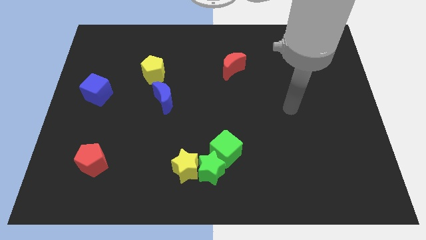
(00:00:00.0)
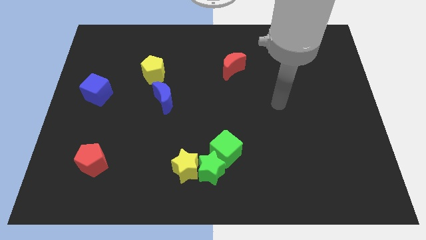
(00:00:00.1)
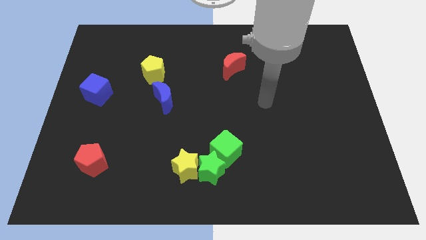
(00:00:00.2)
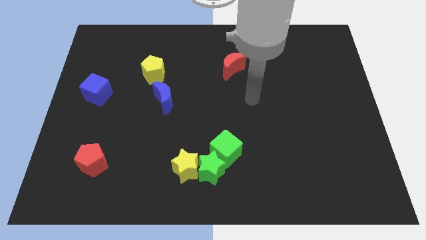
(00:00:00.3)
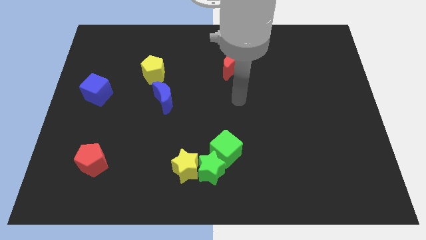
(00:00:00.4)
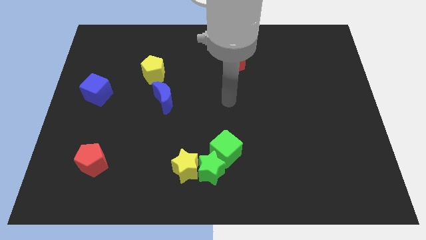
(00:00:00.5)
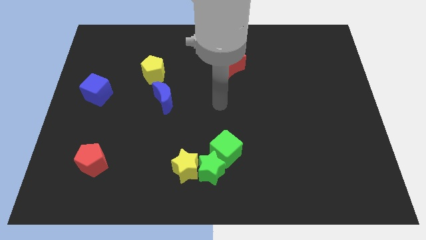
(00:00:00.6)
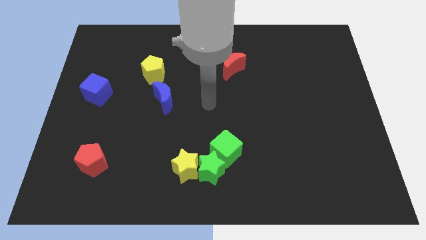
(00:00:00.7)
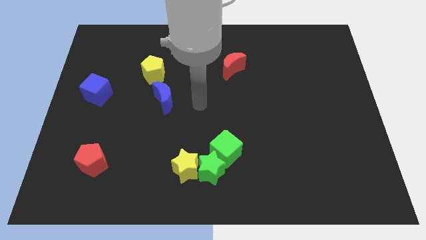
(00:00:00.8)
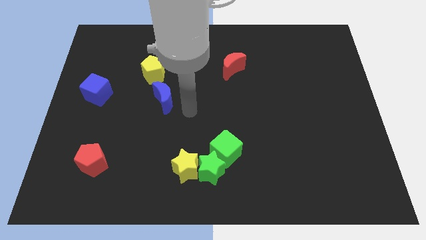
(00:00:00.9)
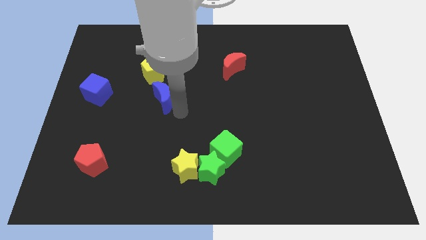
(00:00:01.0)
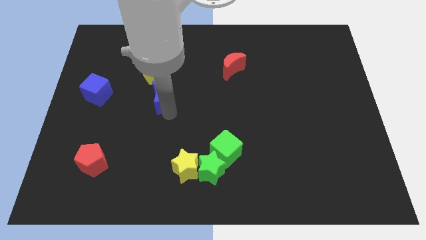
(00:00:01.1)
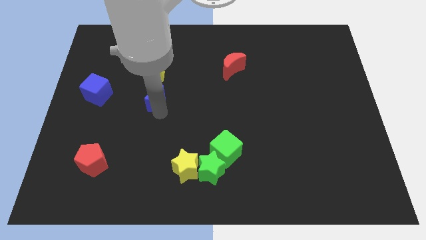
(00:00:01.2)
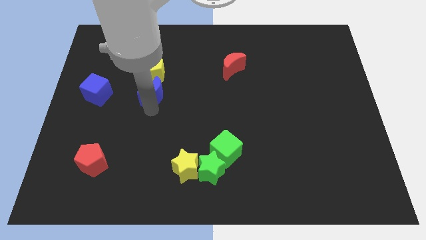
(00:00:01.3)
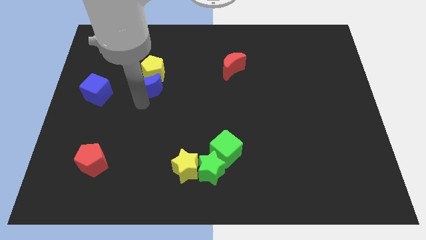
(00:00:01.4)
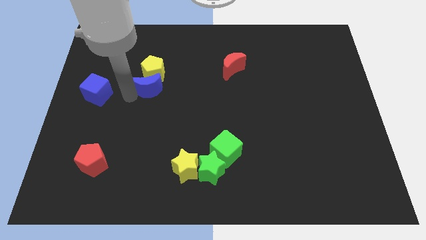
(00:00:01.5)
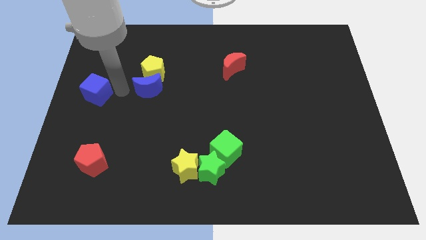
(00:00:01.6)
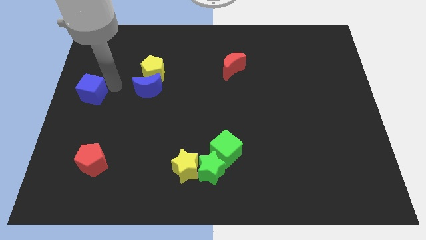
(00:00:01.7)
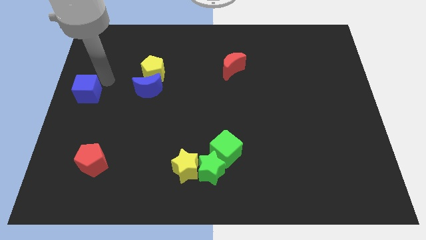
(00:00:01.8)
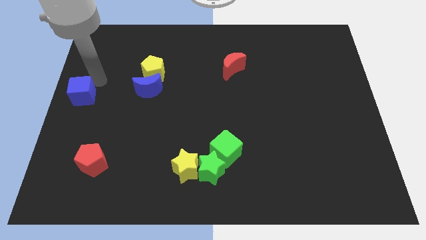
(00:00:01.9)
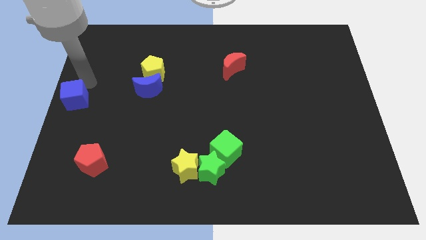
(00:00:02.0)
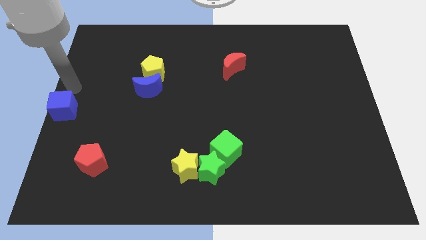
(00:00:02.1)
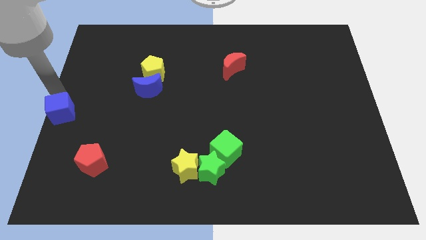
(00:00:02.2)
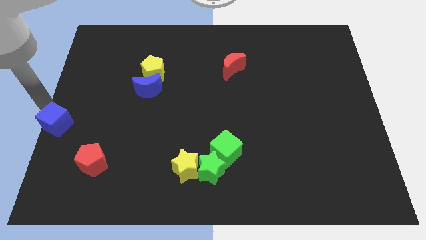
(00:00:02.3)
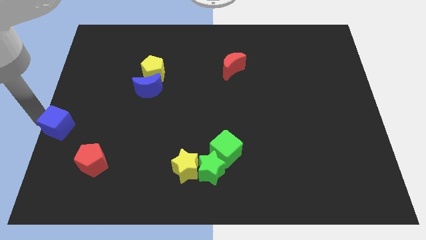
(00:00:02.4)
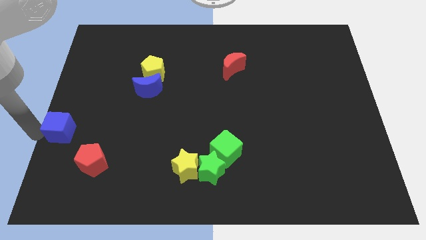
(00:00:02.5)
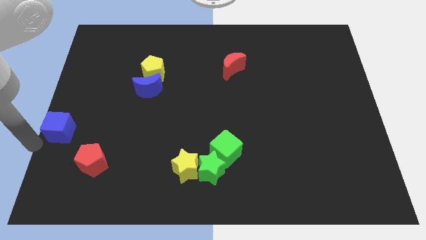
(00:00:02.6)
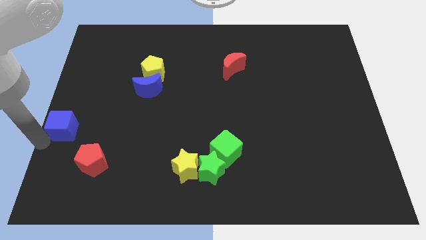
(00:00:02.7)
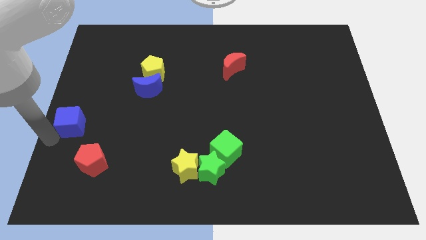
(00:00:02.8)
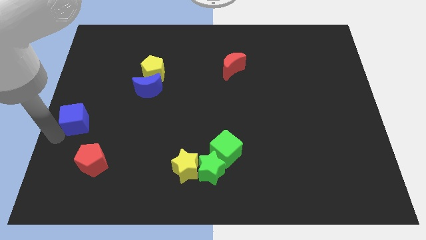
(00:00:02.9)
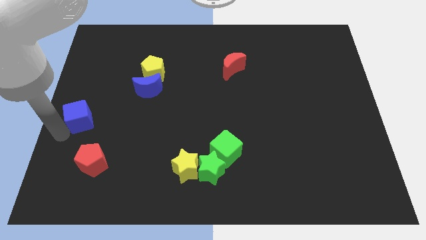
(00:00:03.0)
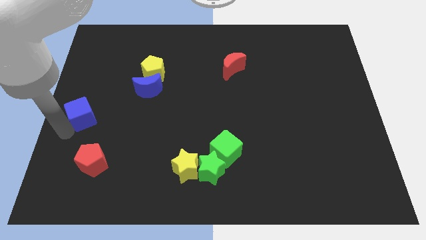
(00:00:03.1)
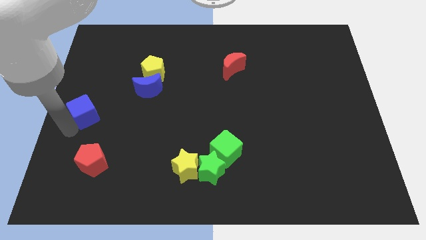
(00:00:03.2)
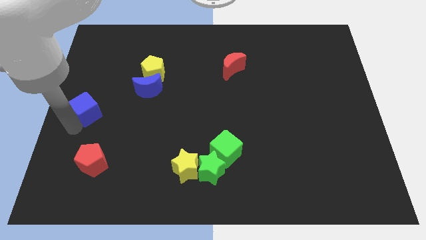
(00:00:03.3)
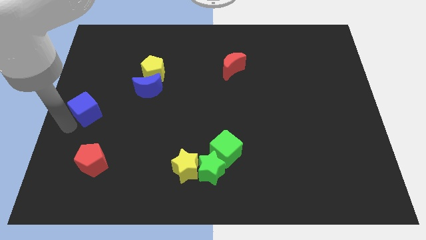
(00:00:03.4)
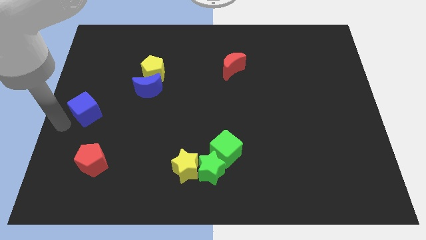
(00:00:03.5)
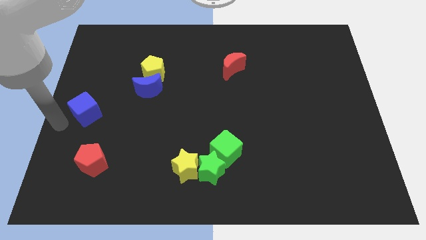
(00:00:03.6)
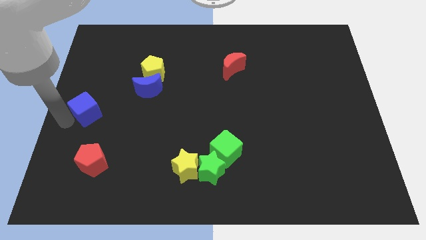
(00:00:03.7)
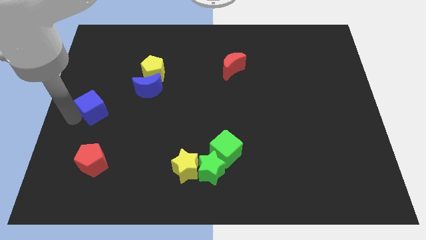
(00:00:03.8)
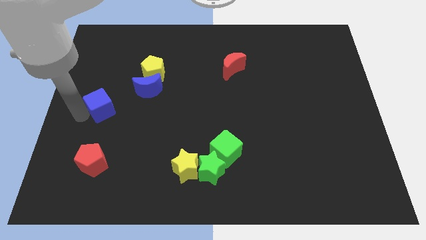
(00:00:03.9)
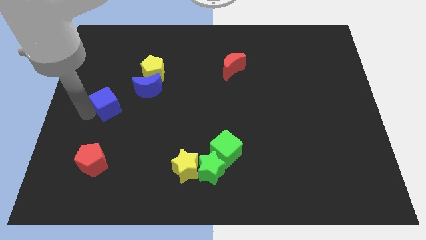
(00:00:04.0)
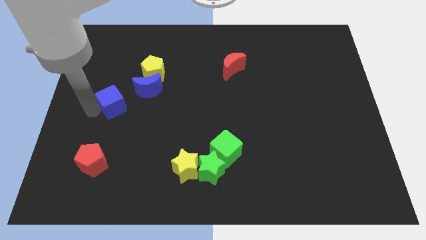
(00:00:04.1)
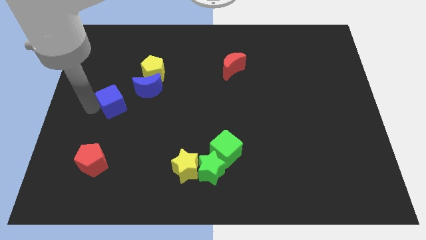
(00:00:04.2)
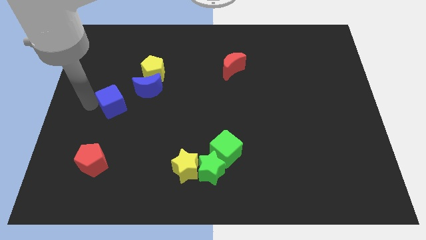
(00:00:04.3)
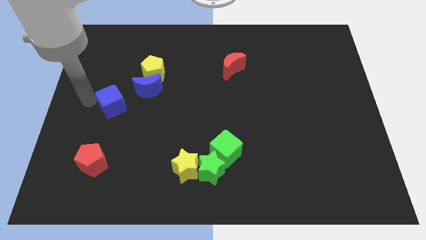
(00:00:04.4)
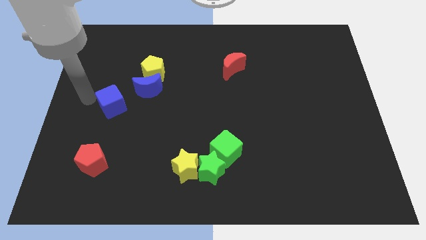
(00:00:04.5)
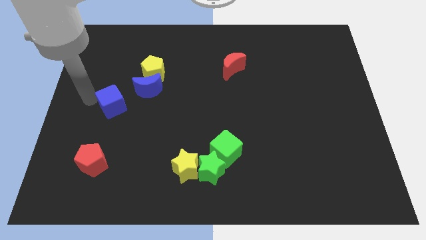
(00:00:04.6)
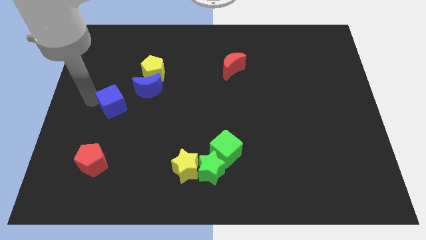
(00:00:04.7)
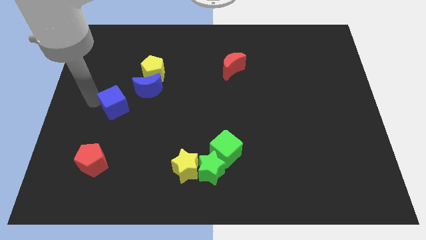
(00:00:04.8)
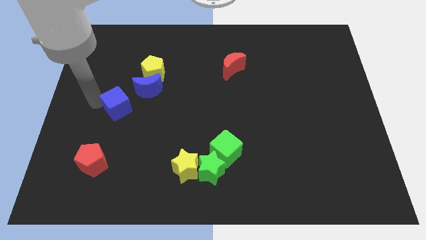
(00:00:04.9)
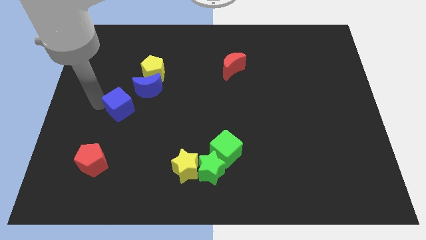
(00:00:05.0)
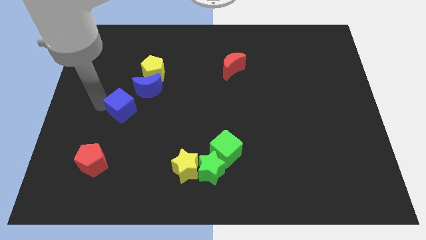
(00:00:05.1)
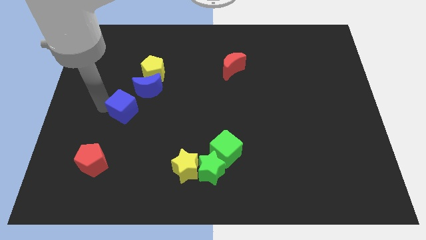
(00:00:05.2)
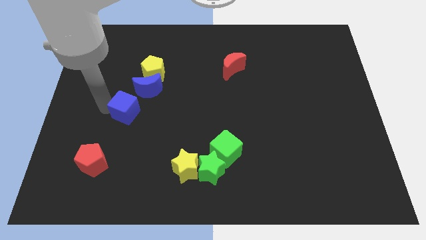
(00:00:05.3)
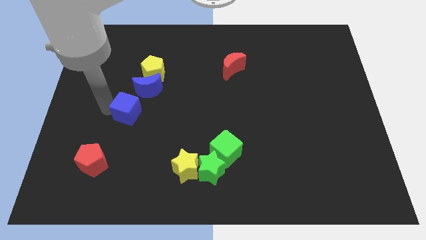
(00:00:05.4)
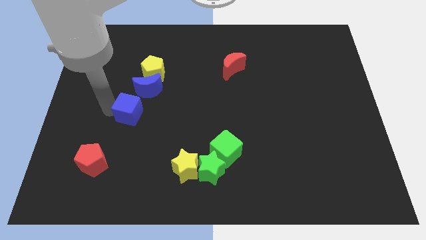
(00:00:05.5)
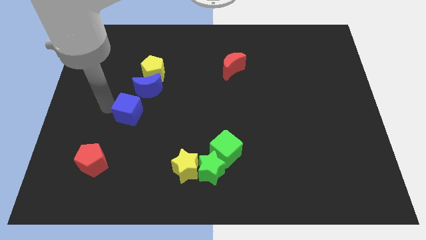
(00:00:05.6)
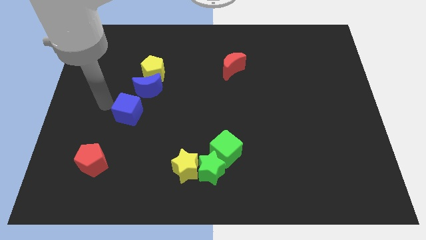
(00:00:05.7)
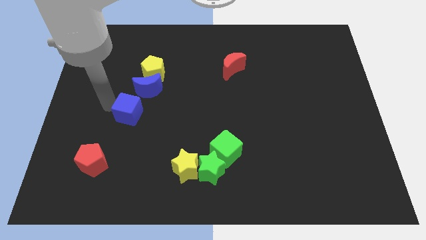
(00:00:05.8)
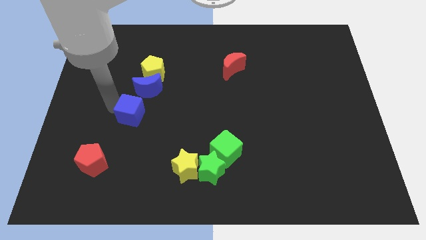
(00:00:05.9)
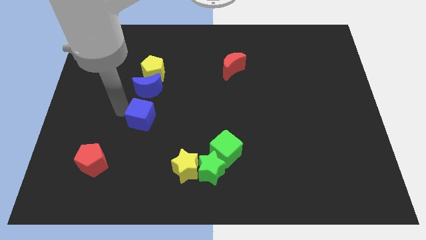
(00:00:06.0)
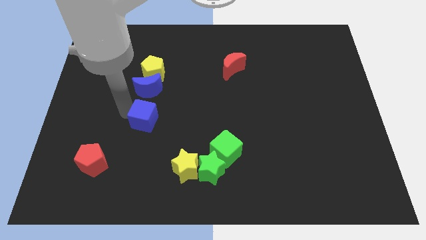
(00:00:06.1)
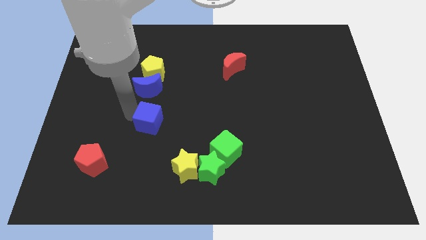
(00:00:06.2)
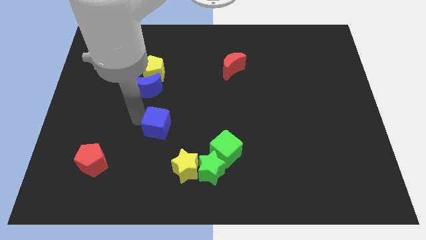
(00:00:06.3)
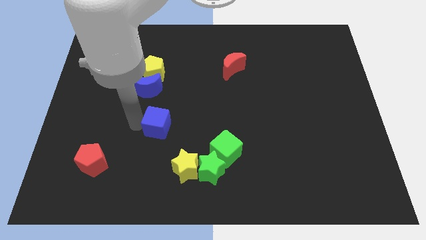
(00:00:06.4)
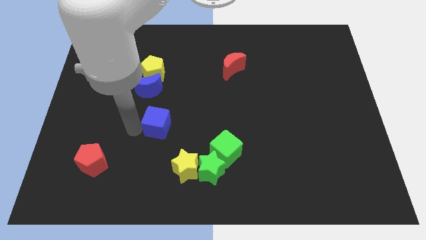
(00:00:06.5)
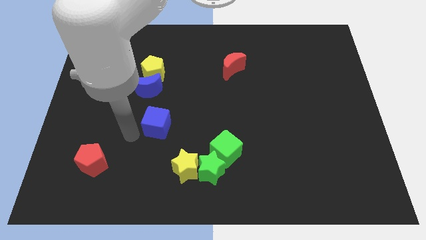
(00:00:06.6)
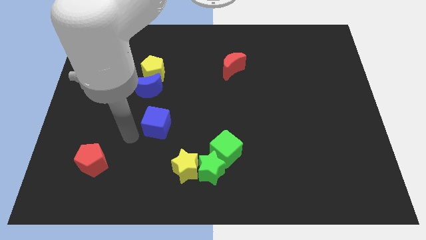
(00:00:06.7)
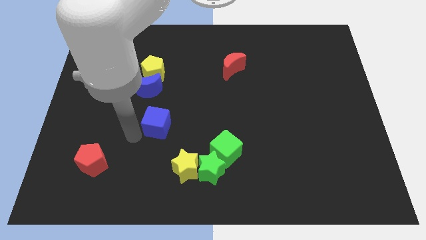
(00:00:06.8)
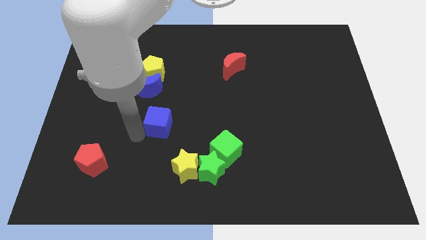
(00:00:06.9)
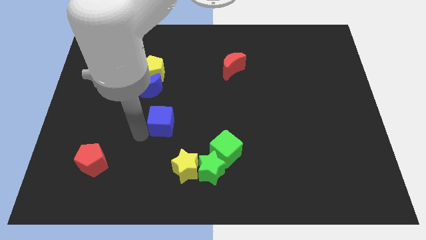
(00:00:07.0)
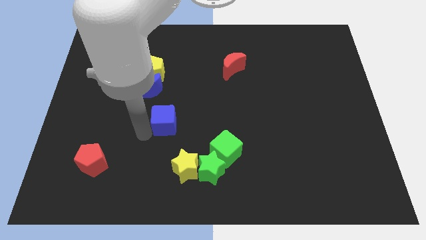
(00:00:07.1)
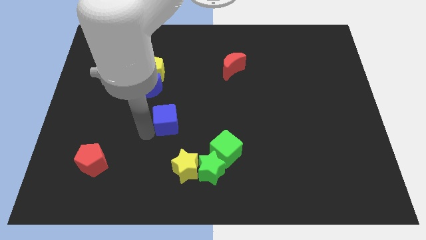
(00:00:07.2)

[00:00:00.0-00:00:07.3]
move the blue cube to the middle

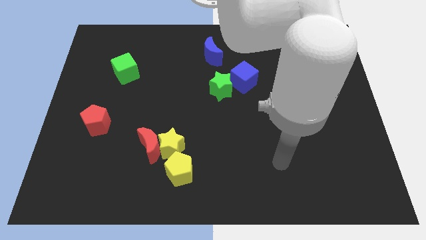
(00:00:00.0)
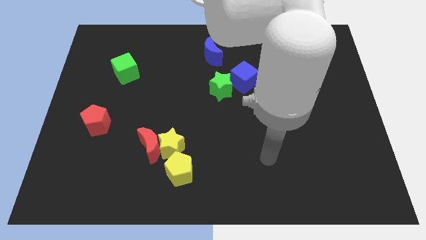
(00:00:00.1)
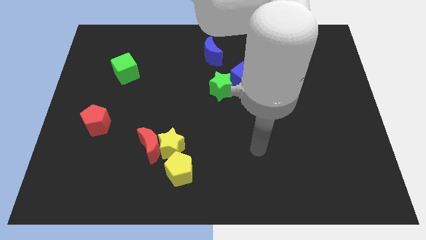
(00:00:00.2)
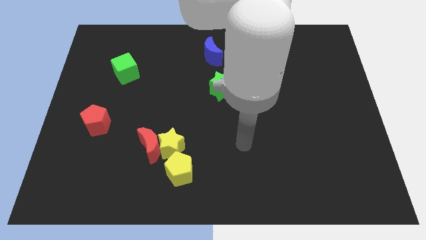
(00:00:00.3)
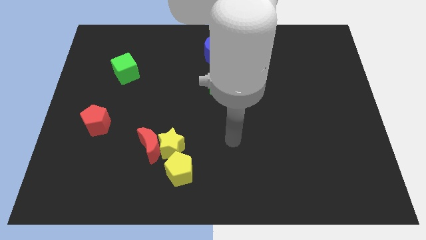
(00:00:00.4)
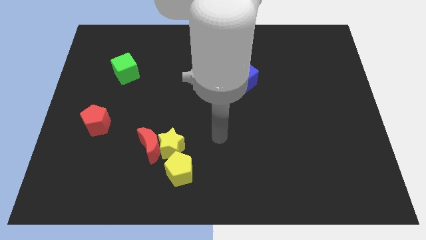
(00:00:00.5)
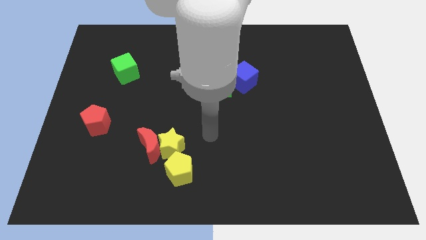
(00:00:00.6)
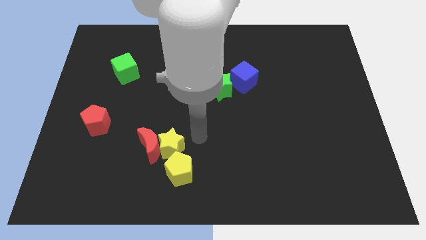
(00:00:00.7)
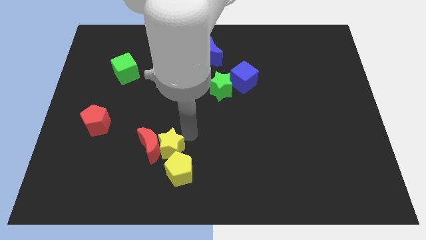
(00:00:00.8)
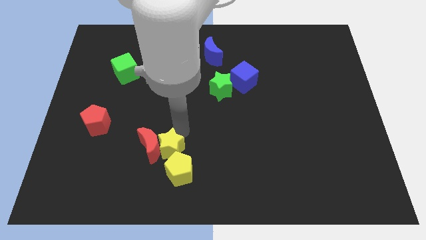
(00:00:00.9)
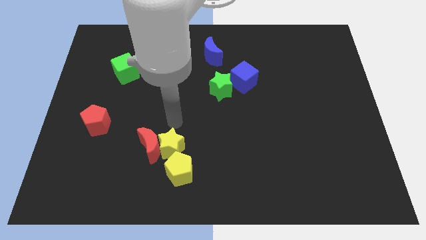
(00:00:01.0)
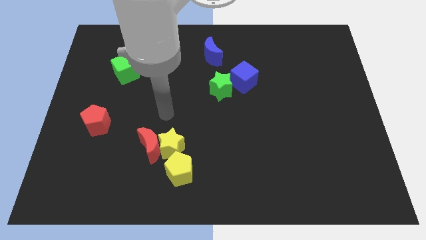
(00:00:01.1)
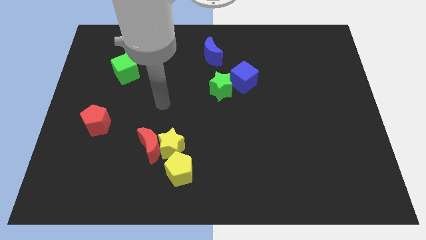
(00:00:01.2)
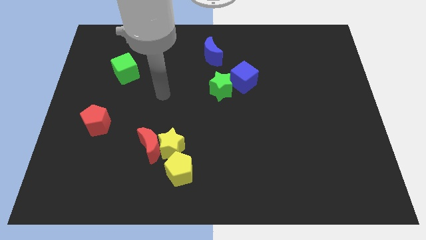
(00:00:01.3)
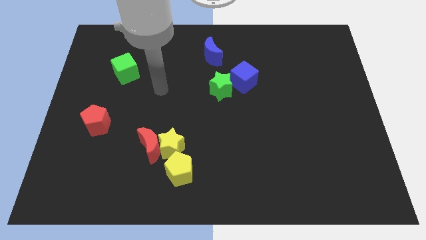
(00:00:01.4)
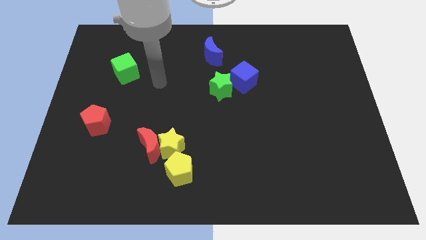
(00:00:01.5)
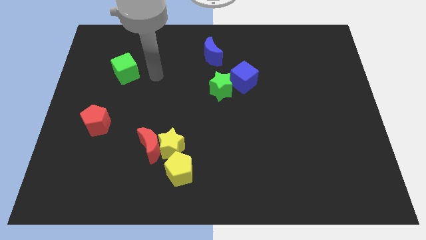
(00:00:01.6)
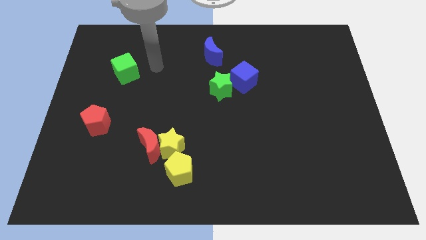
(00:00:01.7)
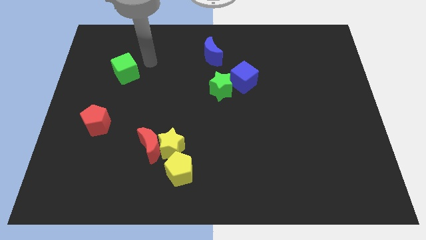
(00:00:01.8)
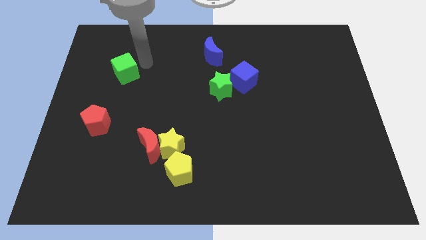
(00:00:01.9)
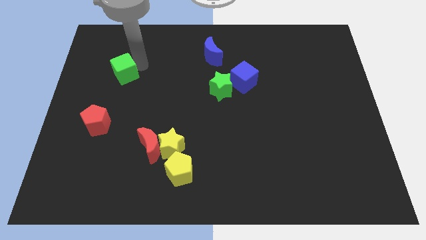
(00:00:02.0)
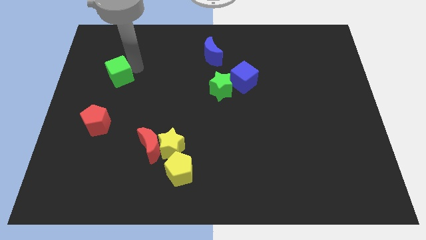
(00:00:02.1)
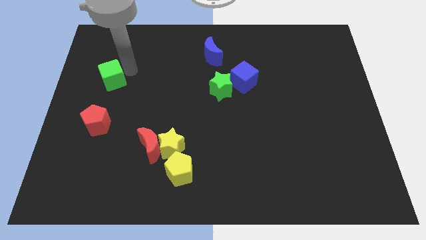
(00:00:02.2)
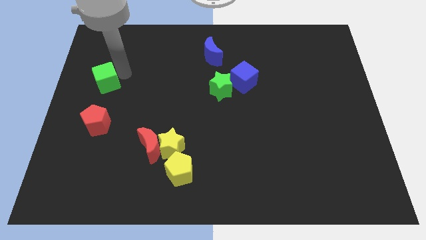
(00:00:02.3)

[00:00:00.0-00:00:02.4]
slide the green cube to the left side of the board
